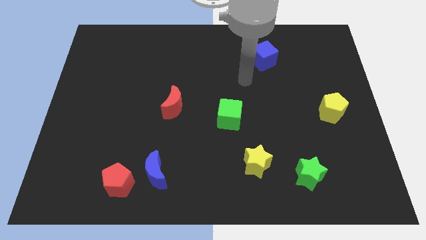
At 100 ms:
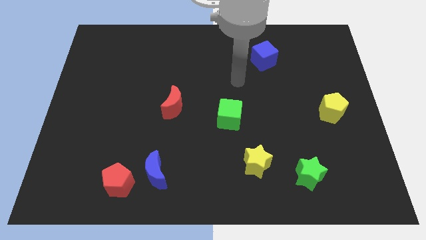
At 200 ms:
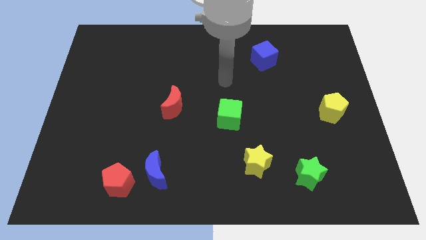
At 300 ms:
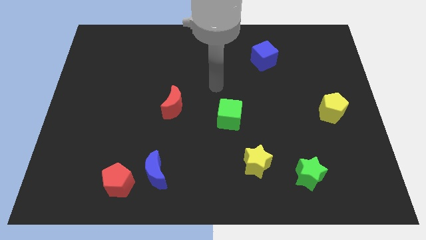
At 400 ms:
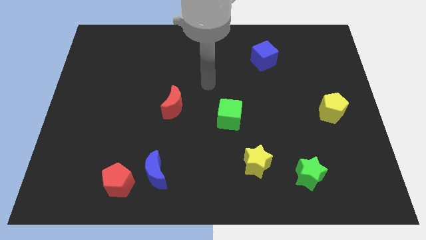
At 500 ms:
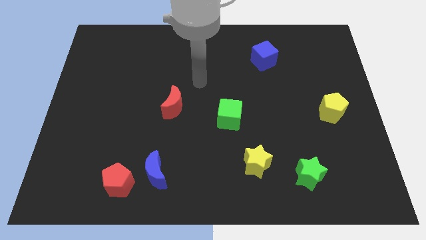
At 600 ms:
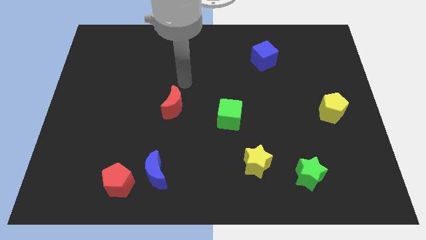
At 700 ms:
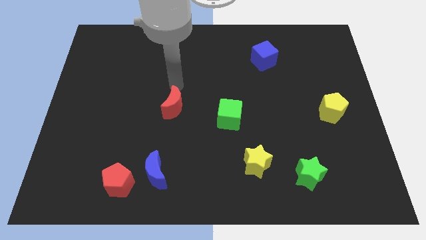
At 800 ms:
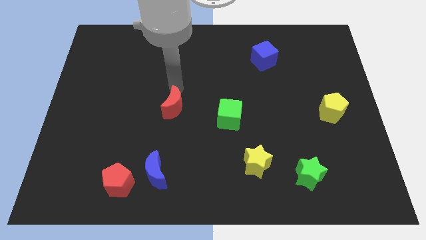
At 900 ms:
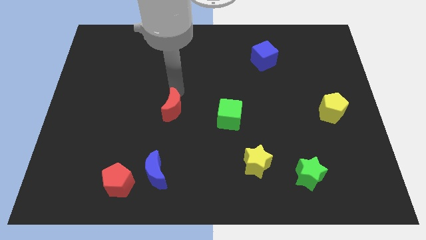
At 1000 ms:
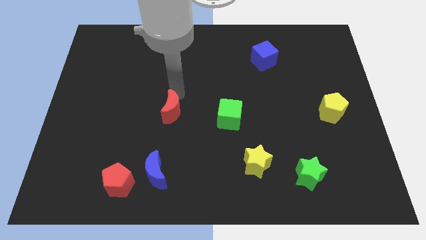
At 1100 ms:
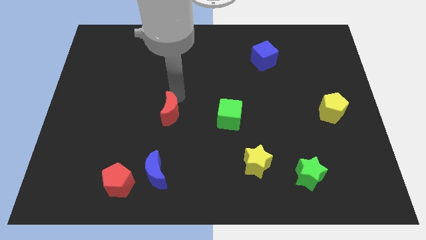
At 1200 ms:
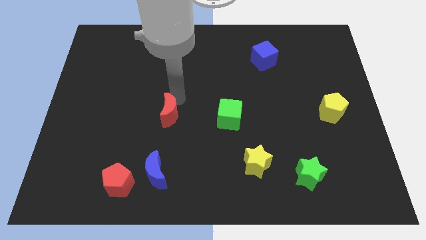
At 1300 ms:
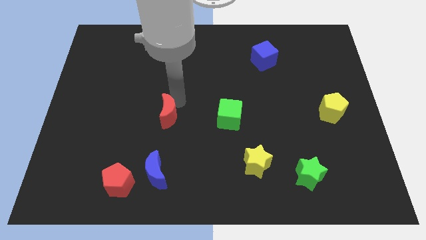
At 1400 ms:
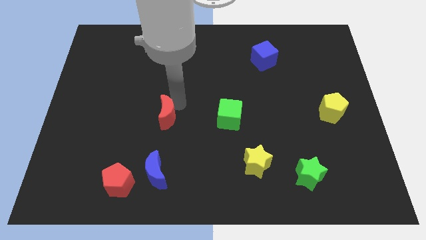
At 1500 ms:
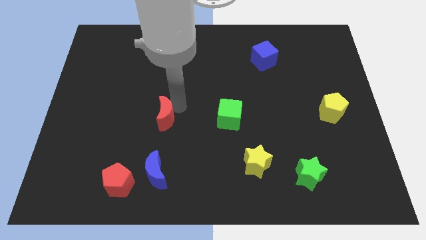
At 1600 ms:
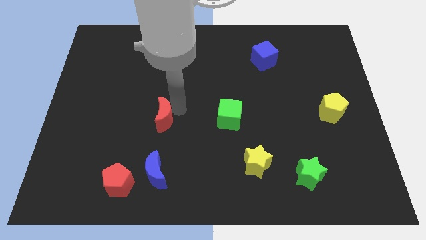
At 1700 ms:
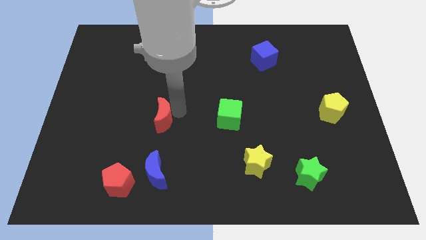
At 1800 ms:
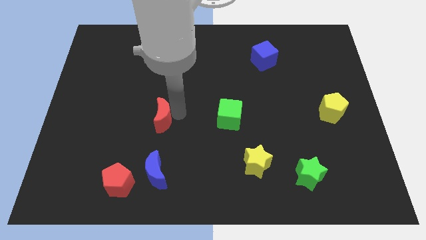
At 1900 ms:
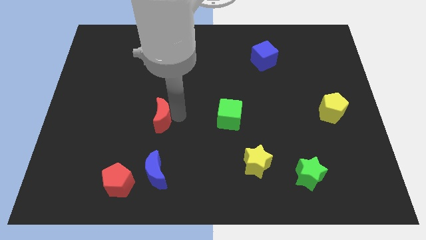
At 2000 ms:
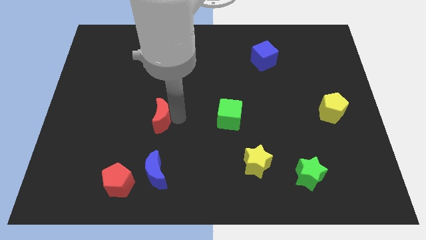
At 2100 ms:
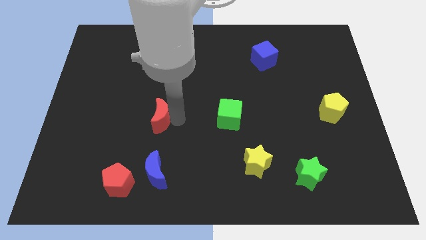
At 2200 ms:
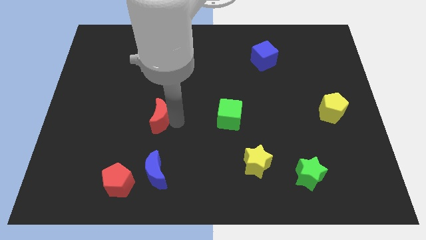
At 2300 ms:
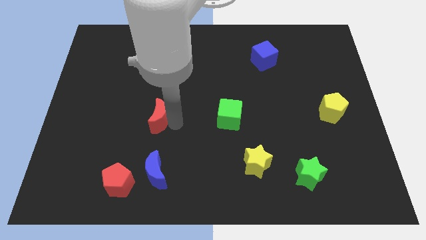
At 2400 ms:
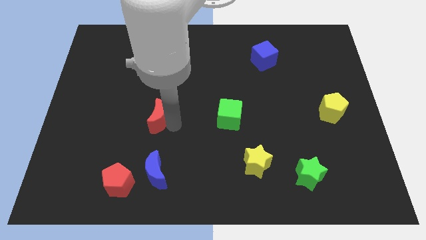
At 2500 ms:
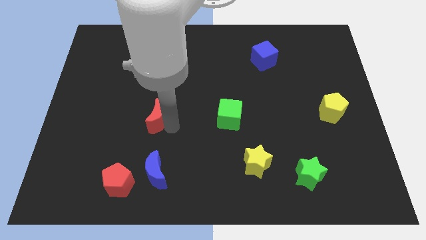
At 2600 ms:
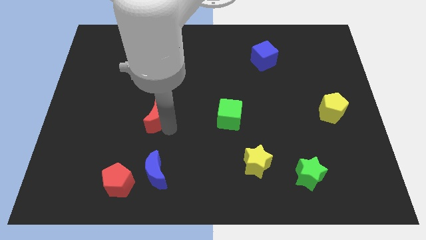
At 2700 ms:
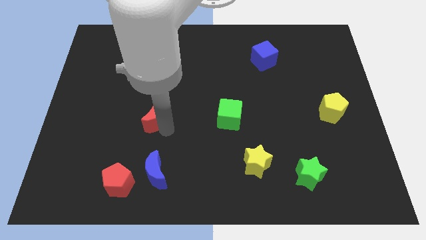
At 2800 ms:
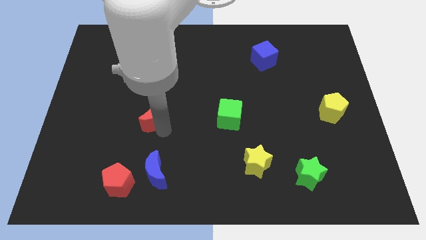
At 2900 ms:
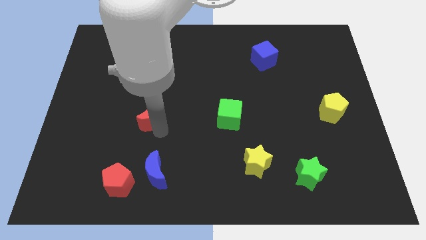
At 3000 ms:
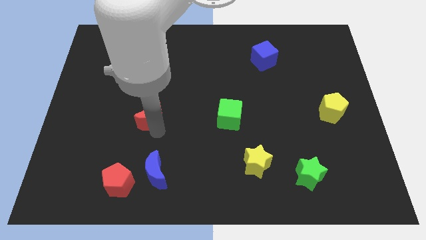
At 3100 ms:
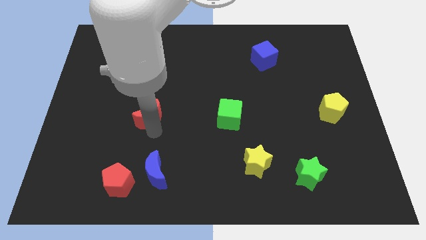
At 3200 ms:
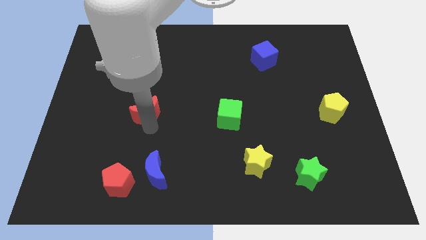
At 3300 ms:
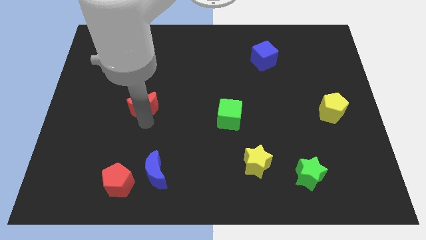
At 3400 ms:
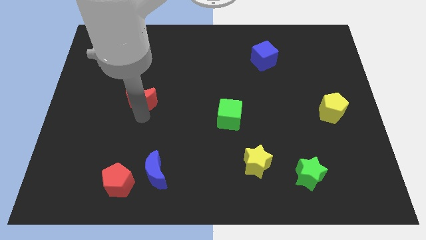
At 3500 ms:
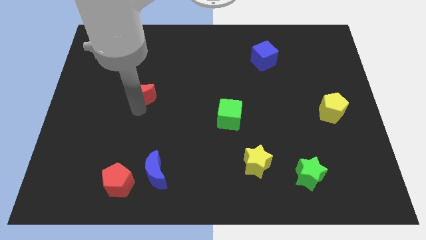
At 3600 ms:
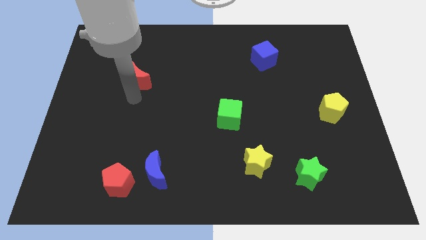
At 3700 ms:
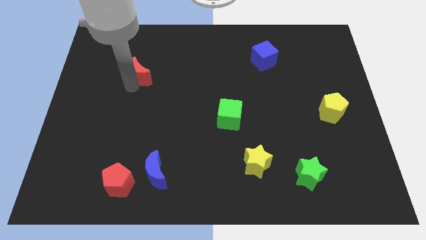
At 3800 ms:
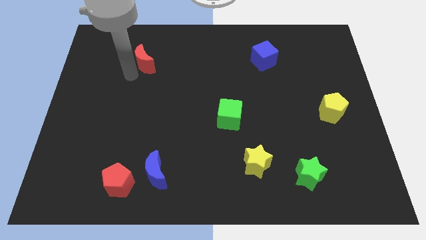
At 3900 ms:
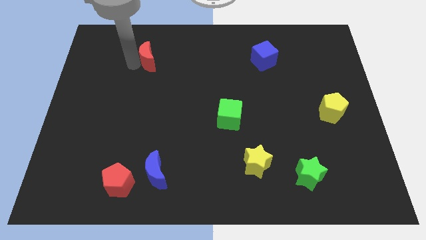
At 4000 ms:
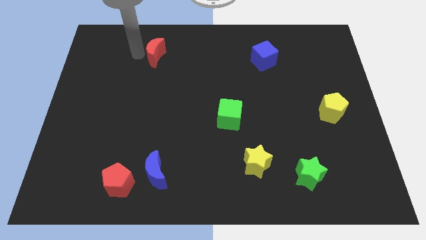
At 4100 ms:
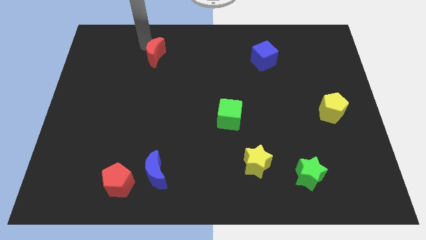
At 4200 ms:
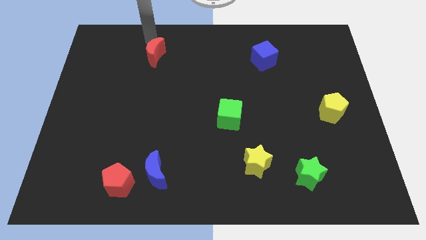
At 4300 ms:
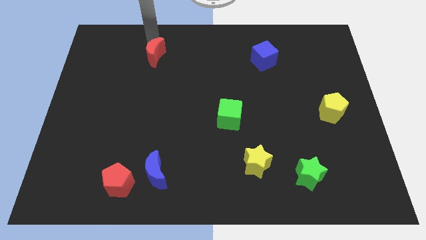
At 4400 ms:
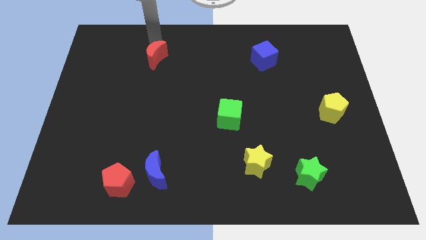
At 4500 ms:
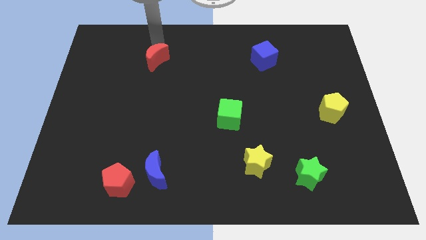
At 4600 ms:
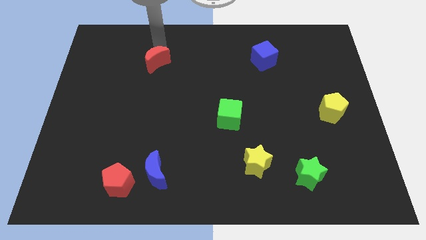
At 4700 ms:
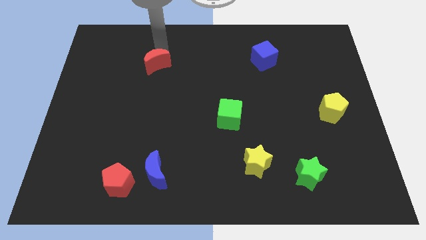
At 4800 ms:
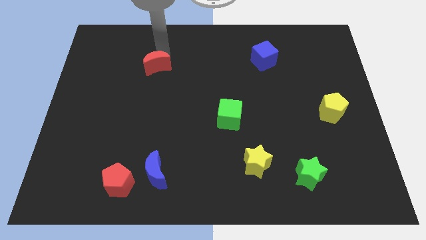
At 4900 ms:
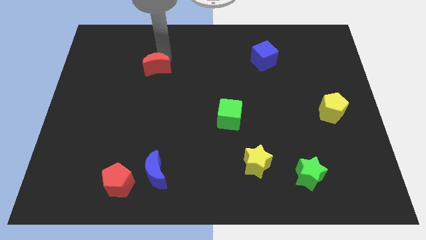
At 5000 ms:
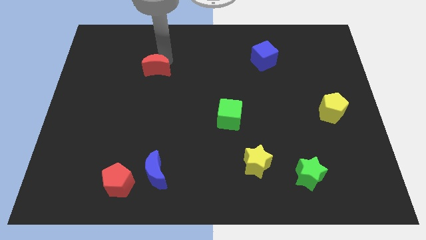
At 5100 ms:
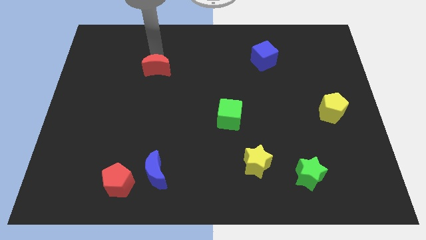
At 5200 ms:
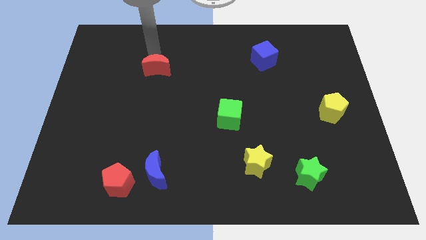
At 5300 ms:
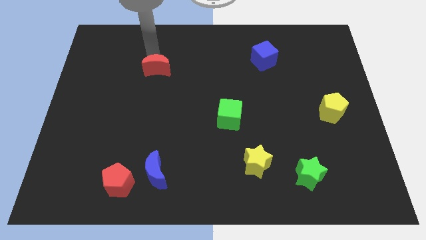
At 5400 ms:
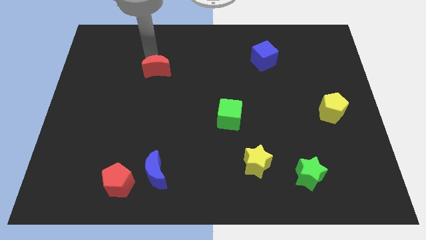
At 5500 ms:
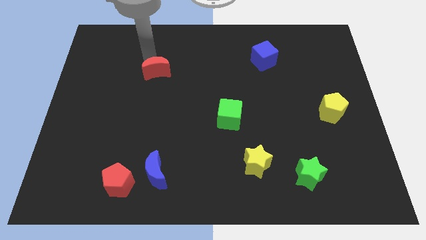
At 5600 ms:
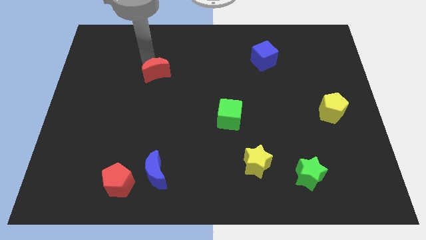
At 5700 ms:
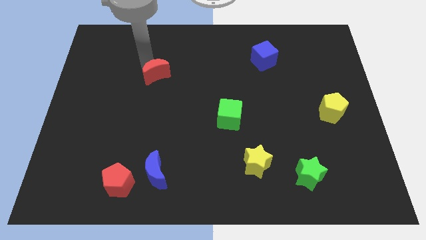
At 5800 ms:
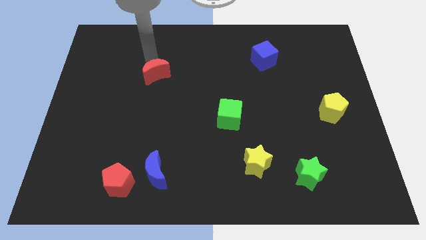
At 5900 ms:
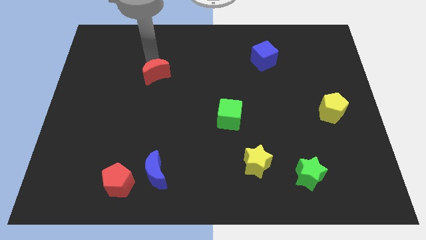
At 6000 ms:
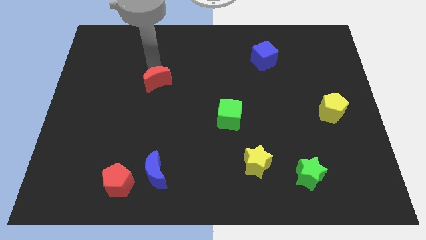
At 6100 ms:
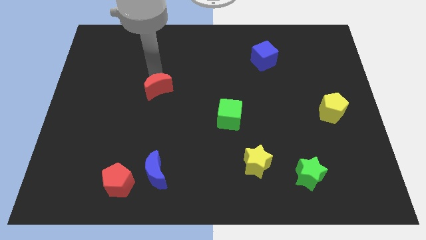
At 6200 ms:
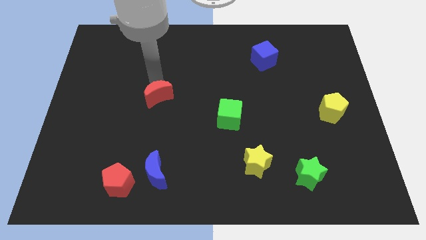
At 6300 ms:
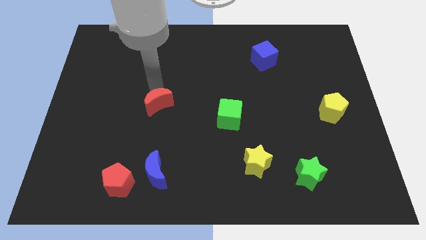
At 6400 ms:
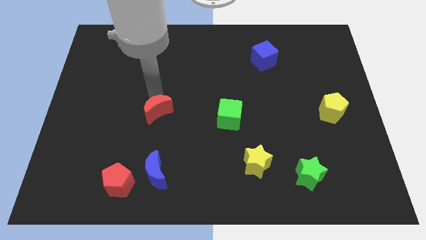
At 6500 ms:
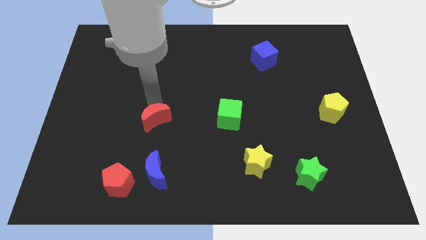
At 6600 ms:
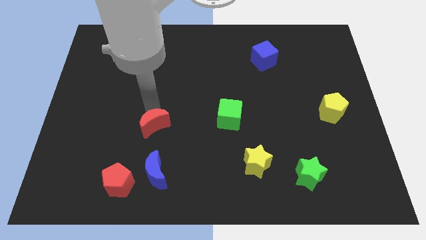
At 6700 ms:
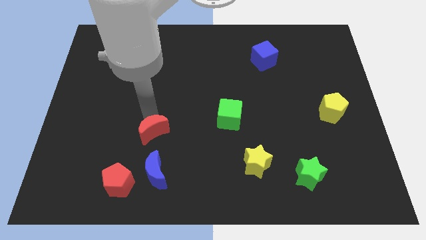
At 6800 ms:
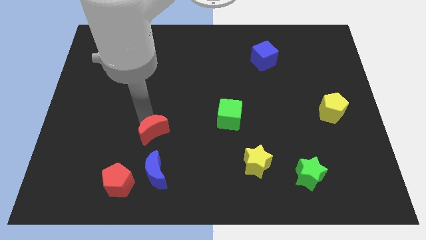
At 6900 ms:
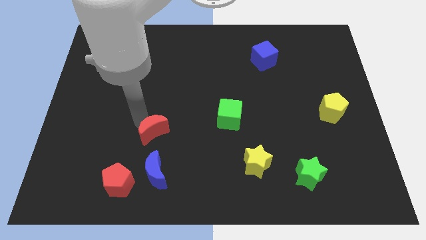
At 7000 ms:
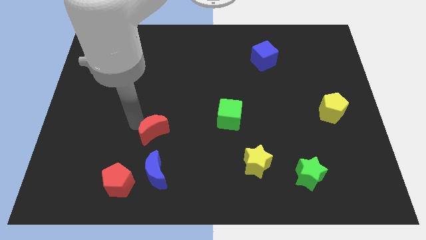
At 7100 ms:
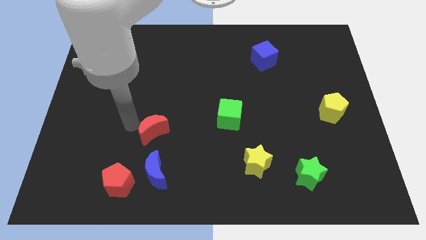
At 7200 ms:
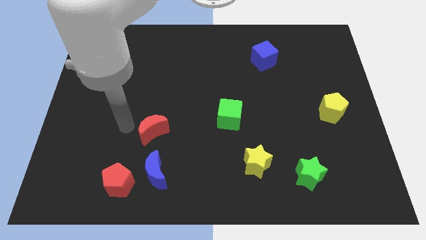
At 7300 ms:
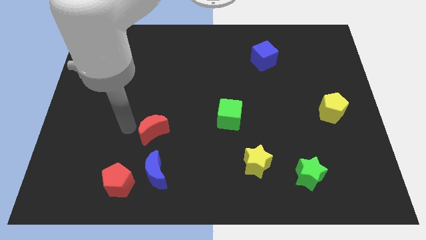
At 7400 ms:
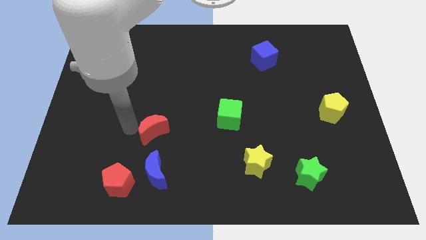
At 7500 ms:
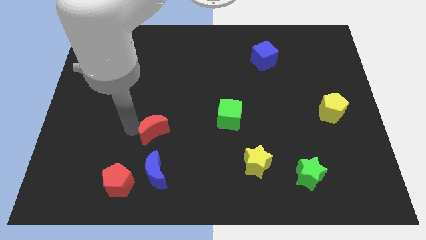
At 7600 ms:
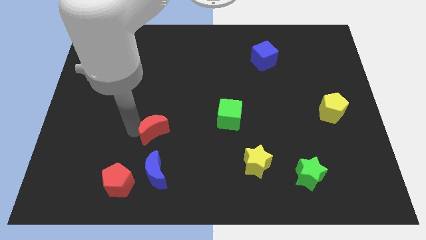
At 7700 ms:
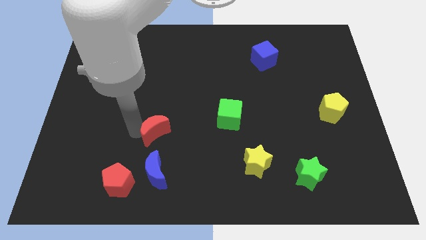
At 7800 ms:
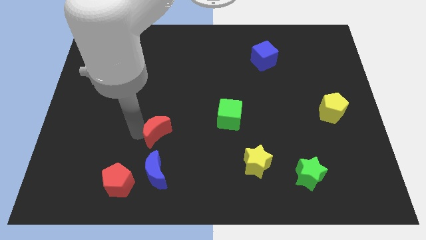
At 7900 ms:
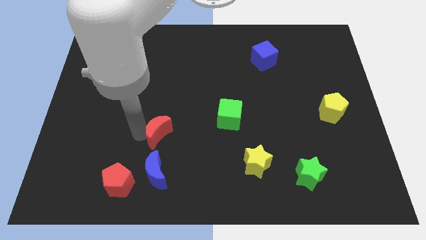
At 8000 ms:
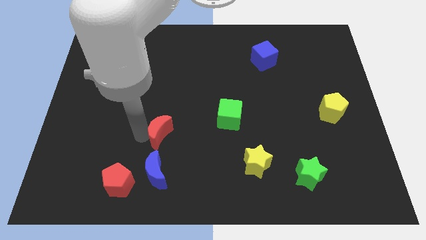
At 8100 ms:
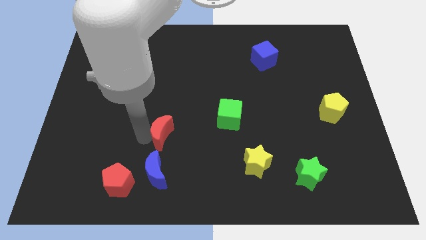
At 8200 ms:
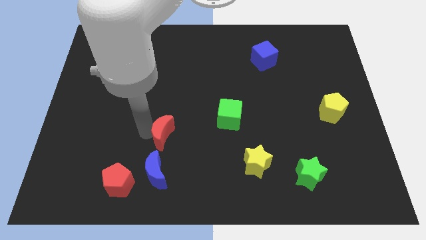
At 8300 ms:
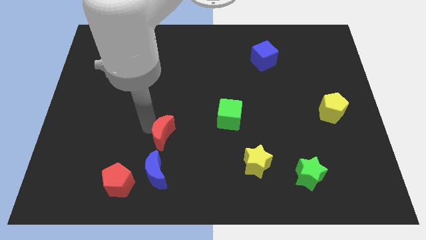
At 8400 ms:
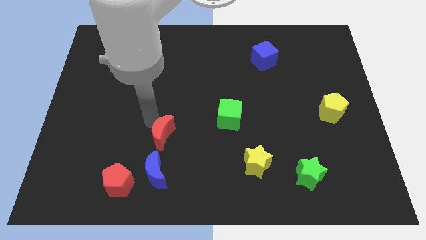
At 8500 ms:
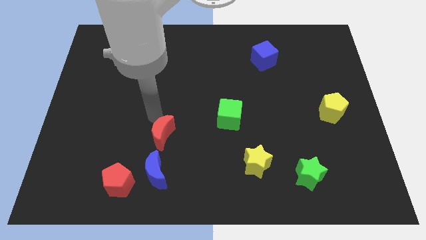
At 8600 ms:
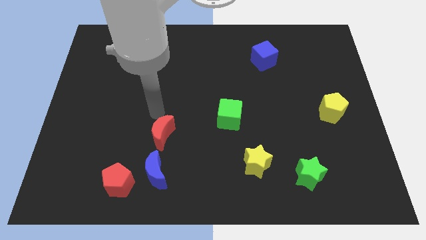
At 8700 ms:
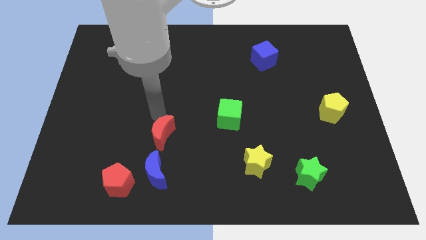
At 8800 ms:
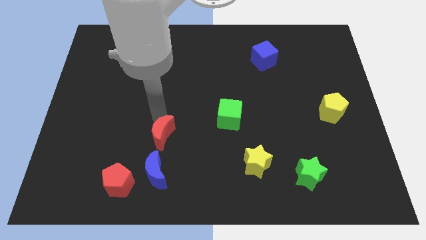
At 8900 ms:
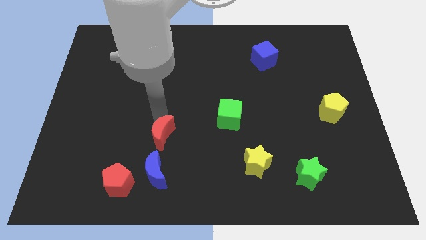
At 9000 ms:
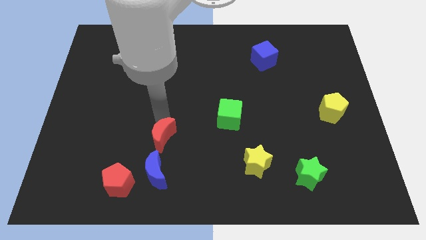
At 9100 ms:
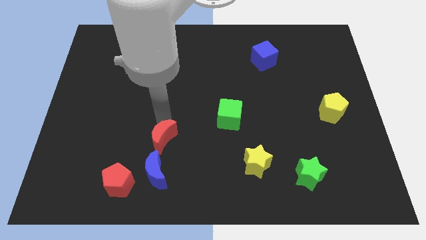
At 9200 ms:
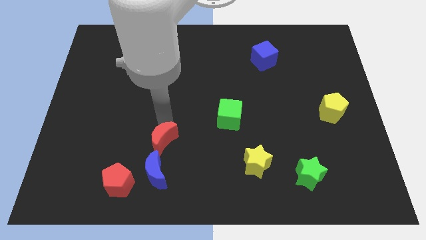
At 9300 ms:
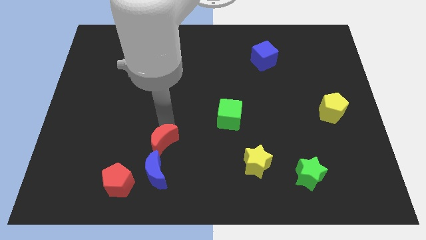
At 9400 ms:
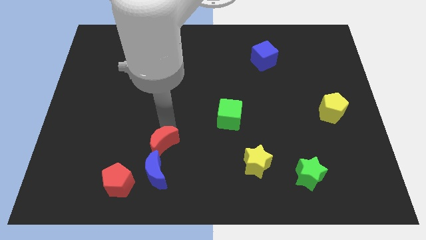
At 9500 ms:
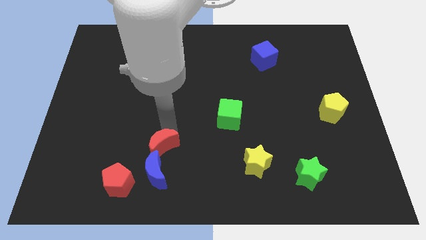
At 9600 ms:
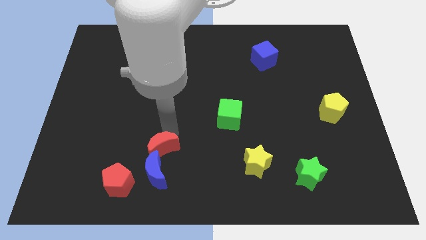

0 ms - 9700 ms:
move the red moon to the blue moon
